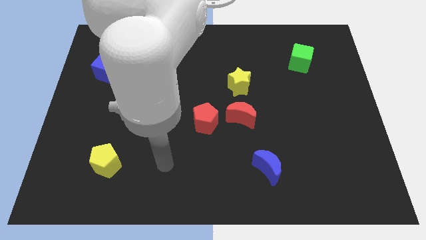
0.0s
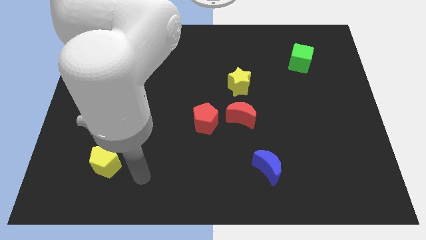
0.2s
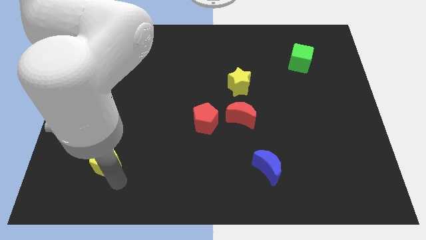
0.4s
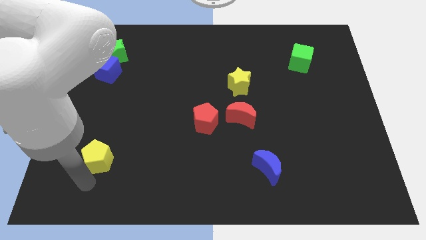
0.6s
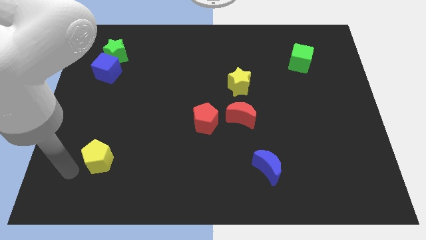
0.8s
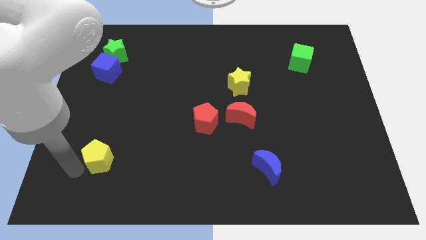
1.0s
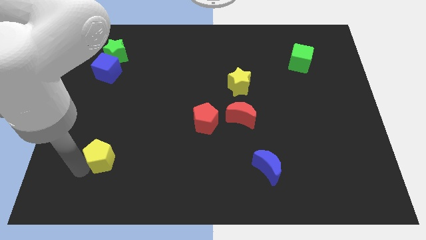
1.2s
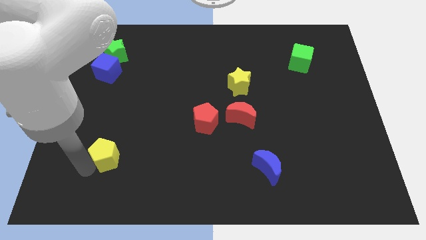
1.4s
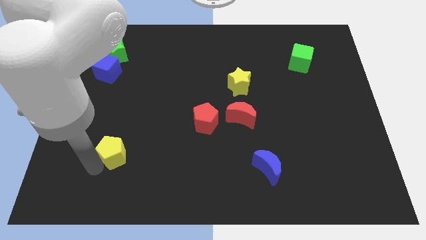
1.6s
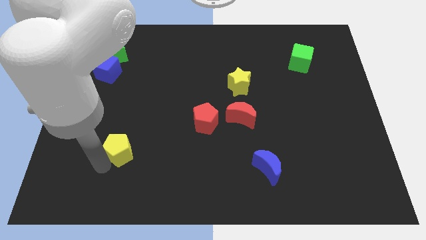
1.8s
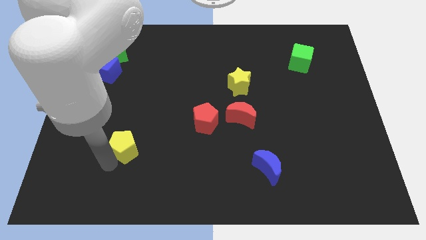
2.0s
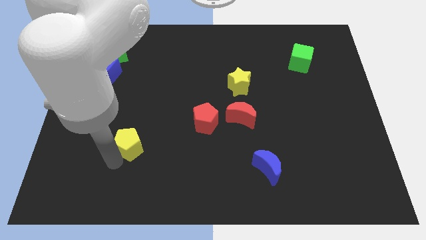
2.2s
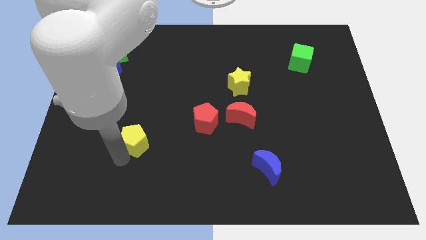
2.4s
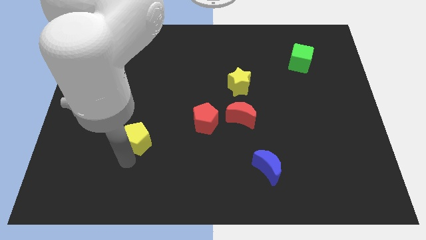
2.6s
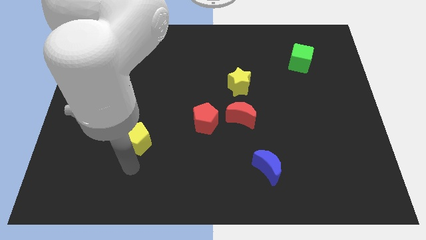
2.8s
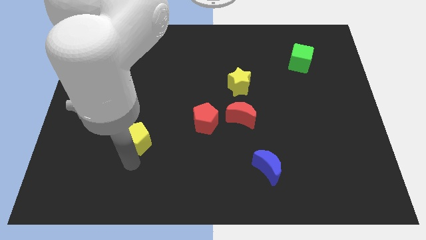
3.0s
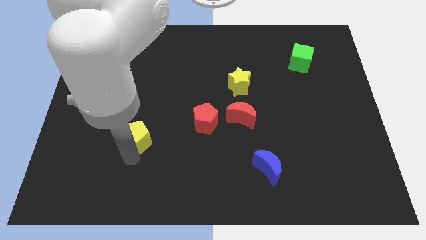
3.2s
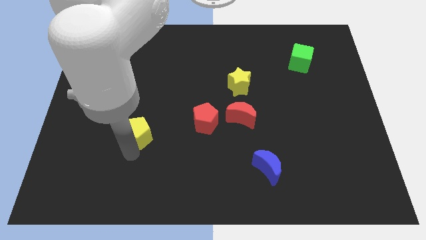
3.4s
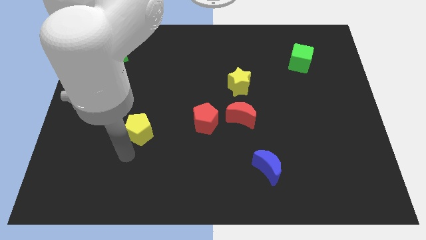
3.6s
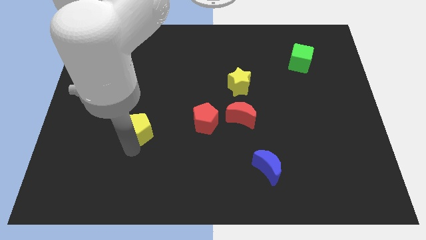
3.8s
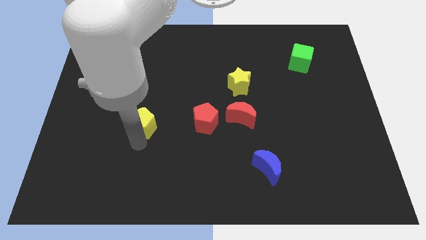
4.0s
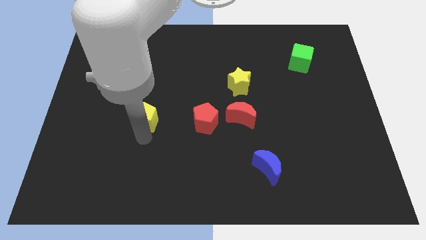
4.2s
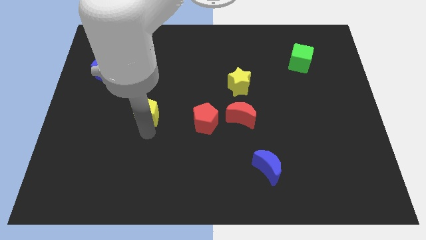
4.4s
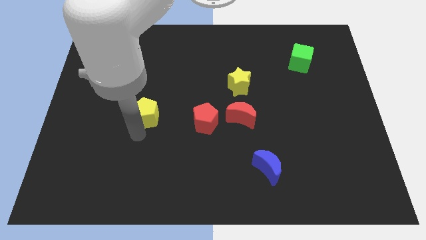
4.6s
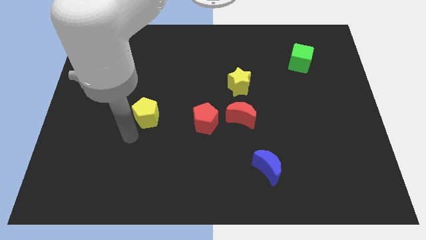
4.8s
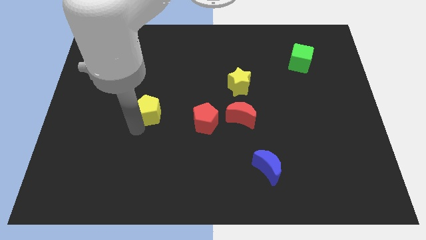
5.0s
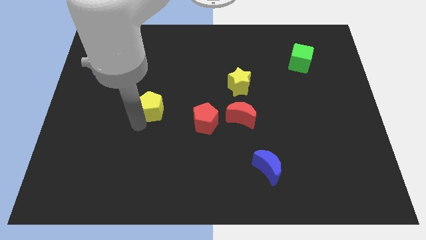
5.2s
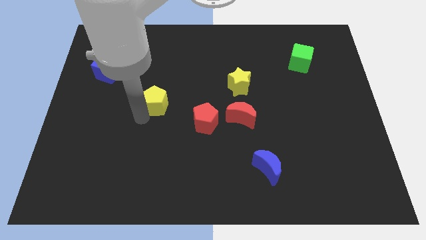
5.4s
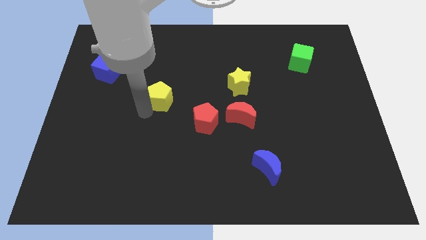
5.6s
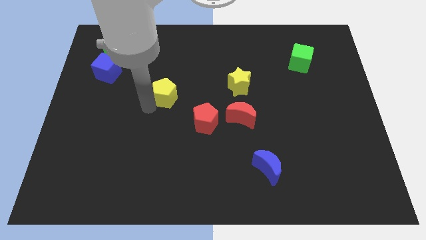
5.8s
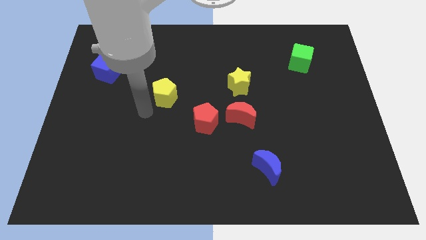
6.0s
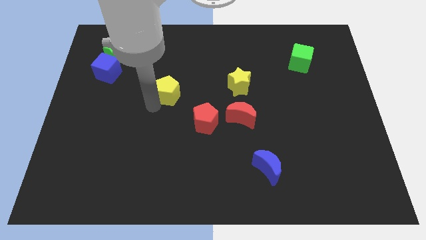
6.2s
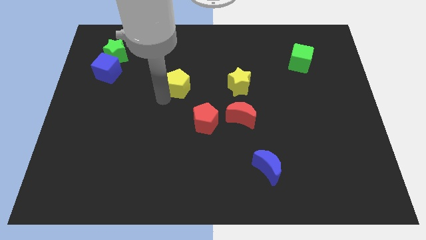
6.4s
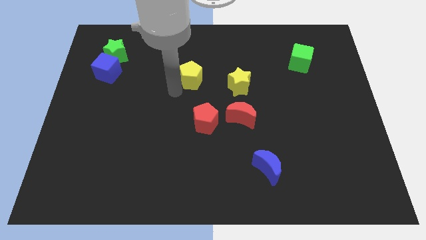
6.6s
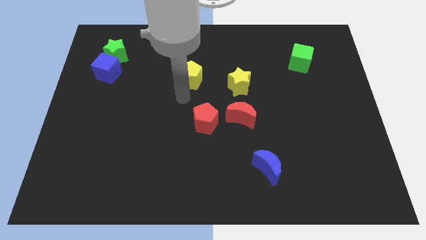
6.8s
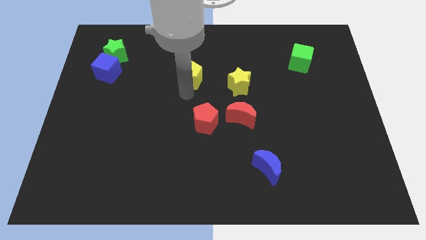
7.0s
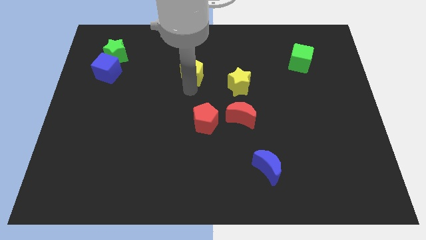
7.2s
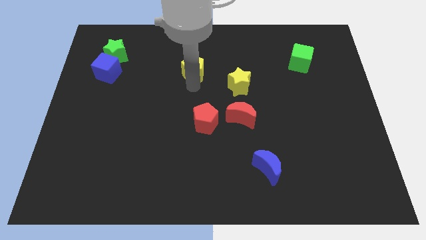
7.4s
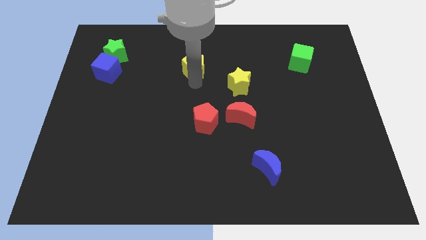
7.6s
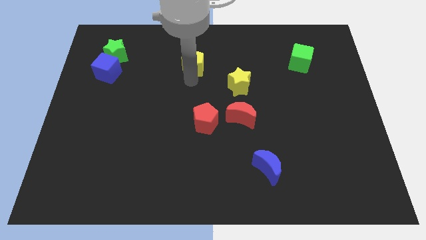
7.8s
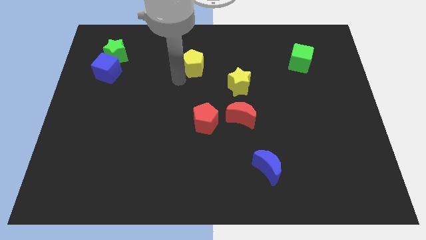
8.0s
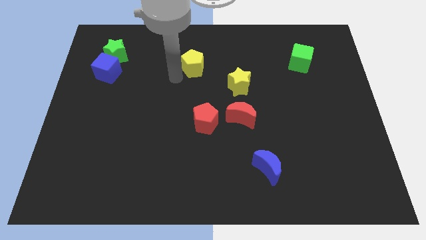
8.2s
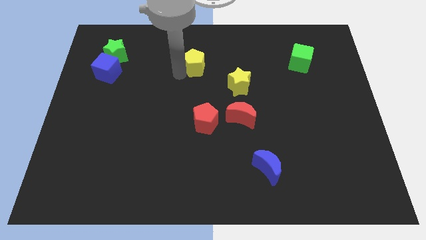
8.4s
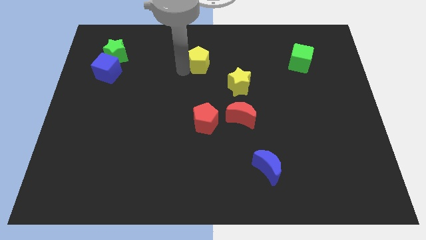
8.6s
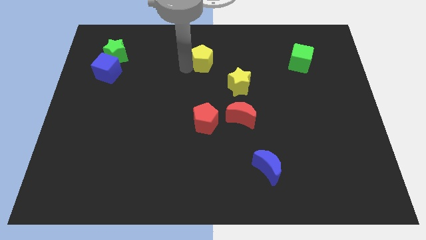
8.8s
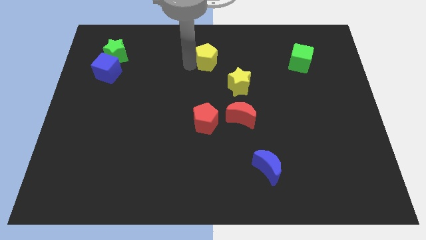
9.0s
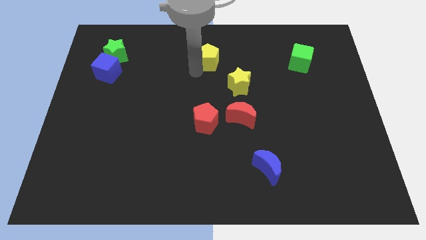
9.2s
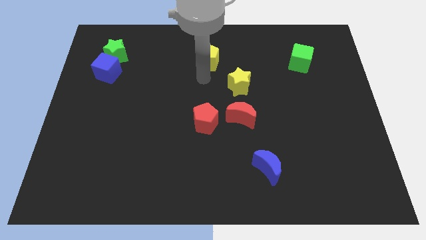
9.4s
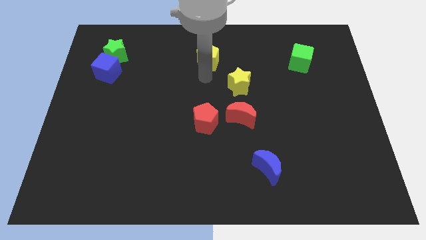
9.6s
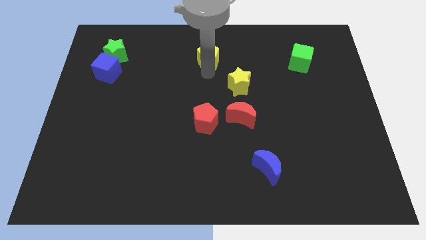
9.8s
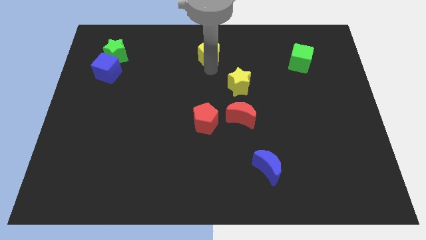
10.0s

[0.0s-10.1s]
move the yellow pentagon to the top

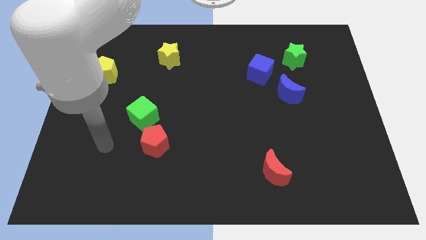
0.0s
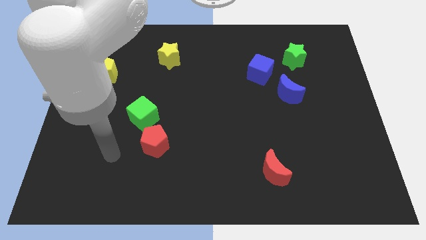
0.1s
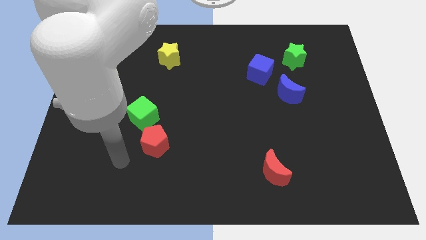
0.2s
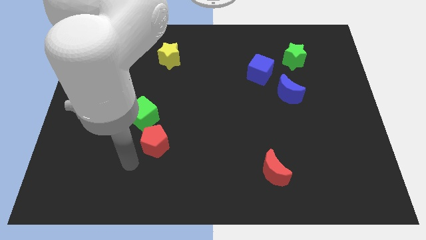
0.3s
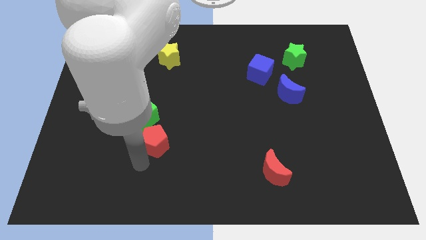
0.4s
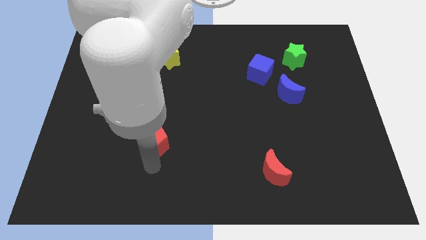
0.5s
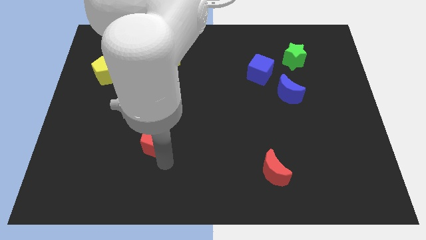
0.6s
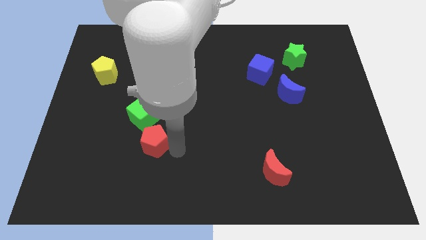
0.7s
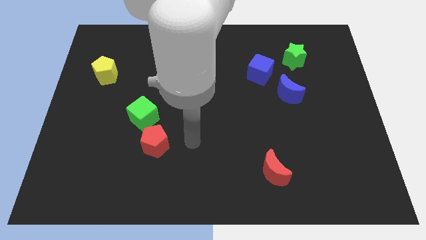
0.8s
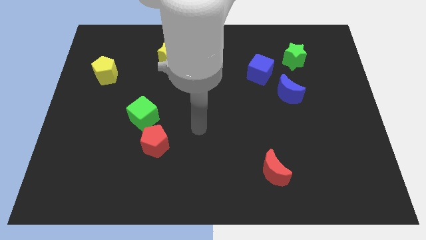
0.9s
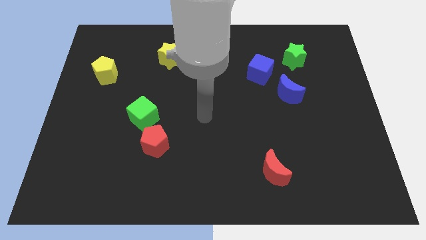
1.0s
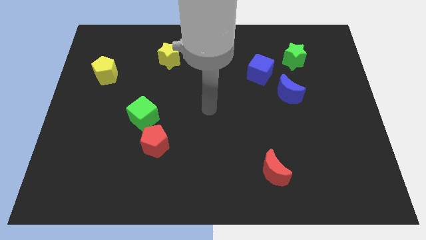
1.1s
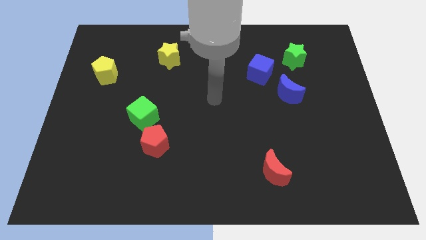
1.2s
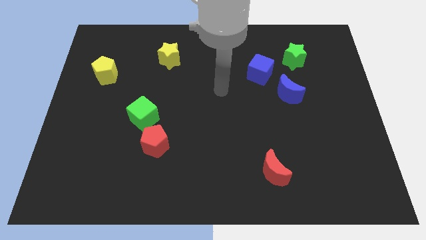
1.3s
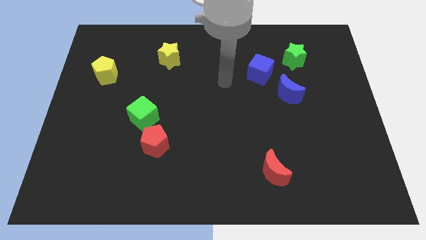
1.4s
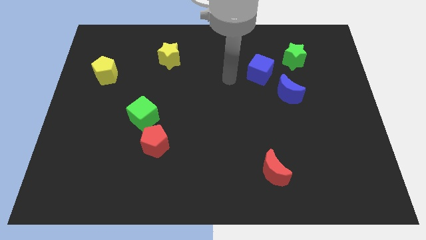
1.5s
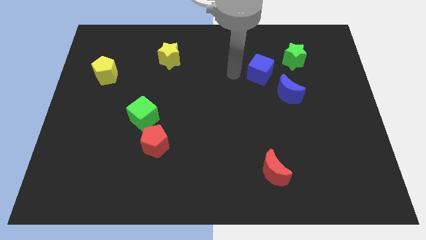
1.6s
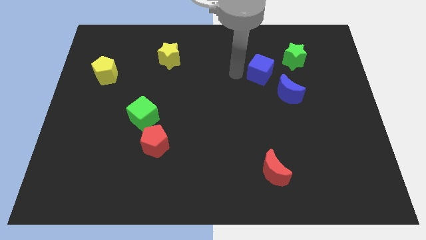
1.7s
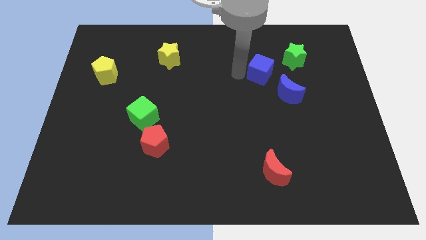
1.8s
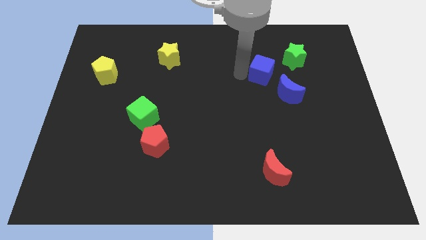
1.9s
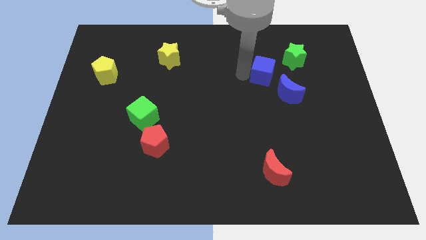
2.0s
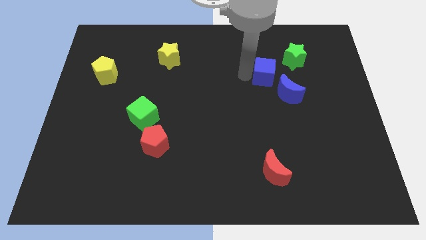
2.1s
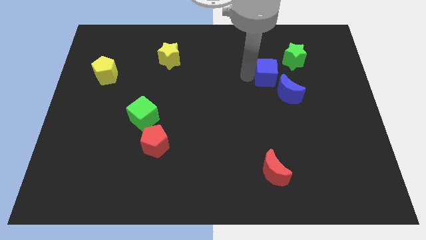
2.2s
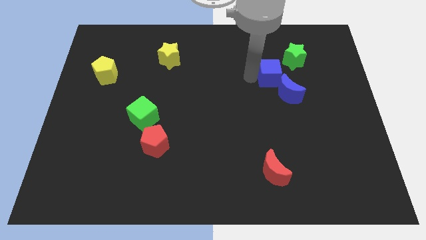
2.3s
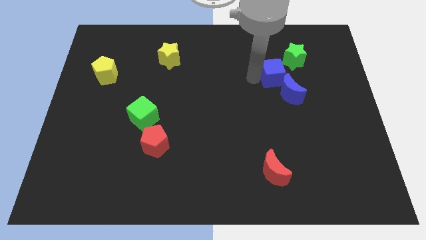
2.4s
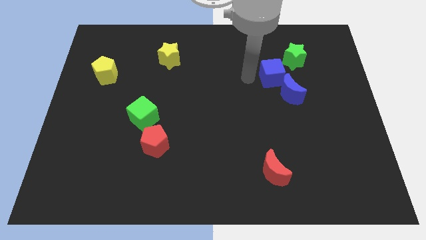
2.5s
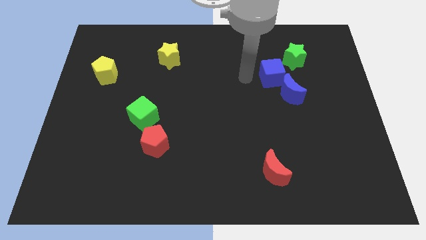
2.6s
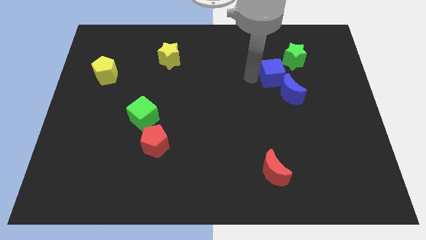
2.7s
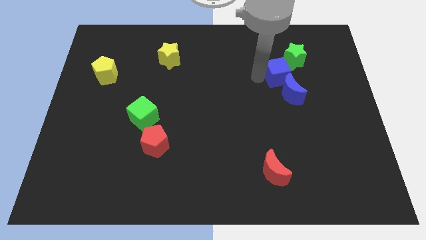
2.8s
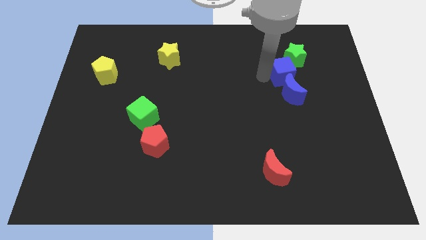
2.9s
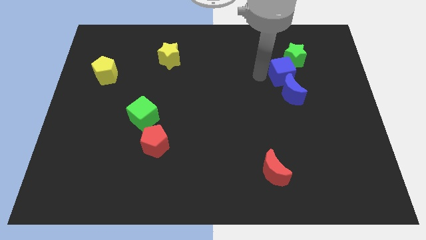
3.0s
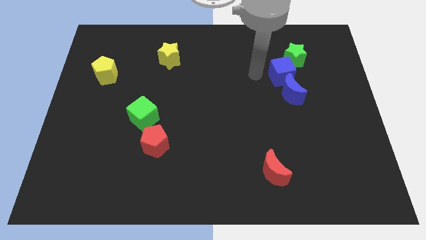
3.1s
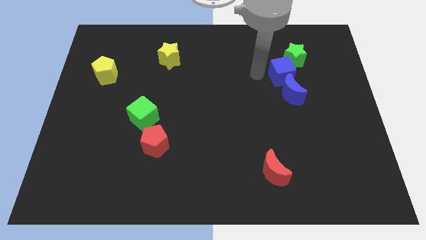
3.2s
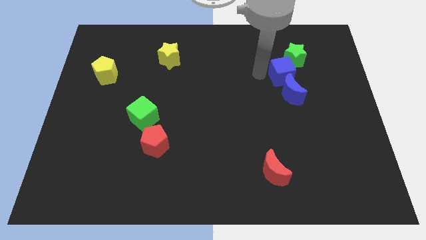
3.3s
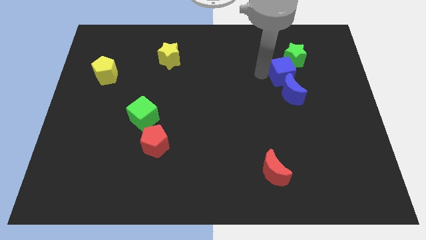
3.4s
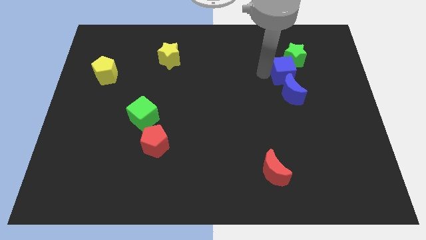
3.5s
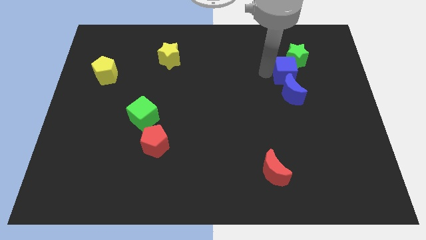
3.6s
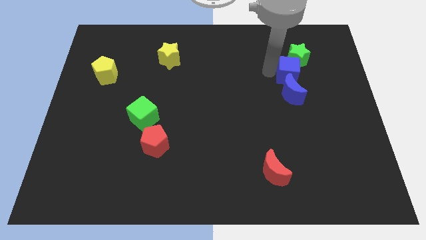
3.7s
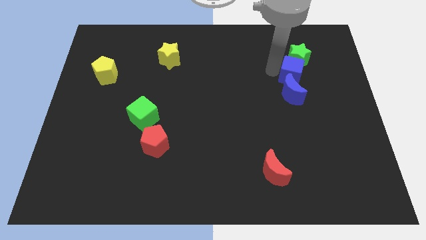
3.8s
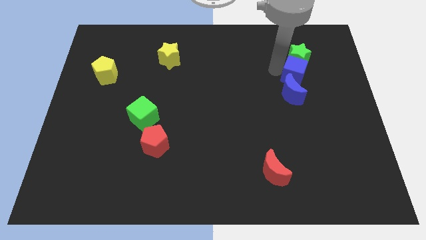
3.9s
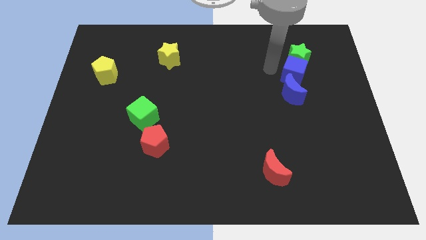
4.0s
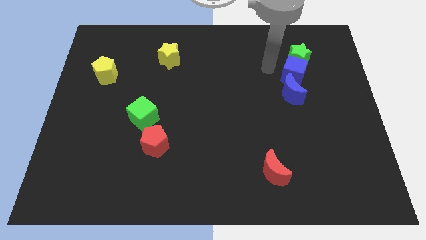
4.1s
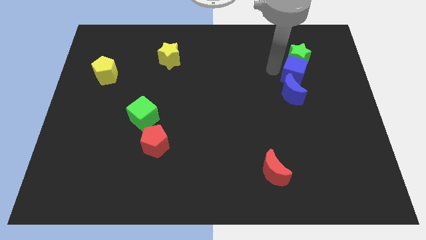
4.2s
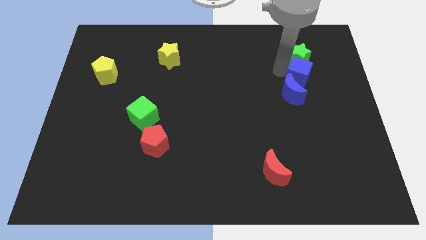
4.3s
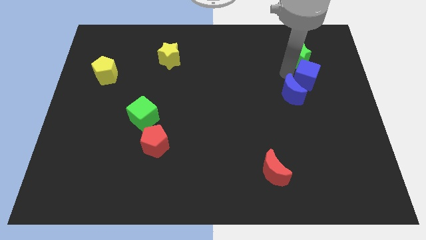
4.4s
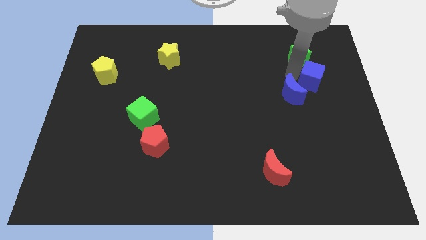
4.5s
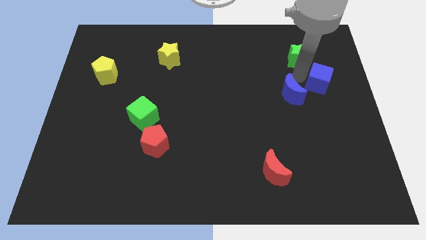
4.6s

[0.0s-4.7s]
put the blue cube to the right side
